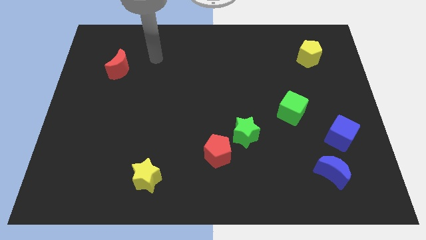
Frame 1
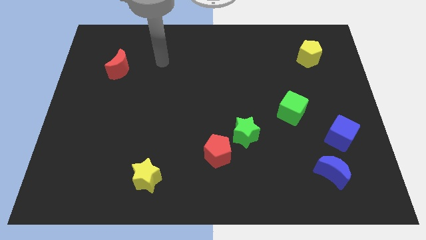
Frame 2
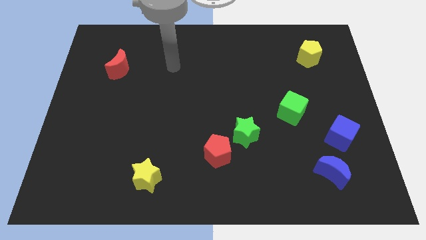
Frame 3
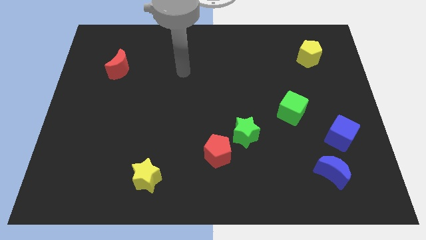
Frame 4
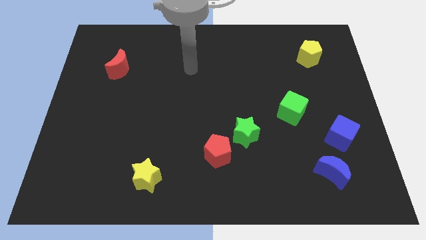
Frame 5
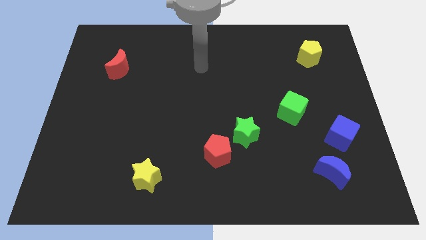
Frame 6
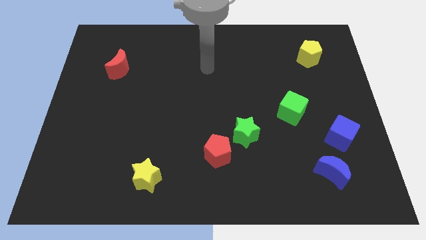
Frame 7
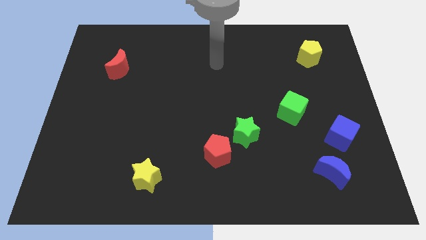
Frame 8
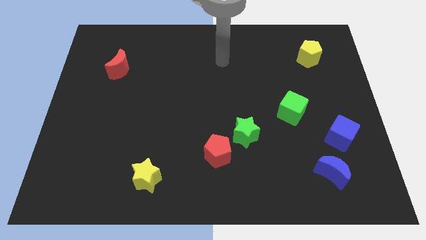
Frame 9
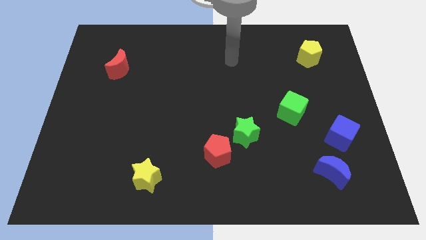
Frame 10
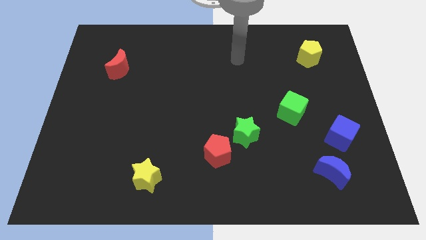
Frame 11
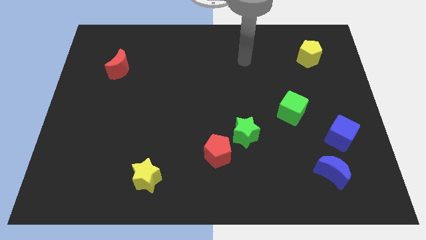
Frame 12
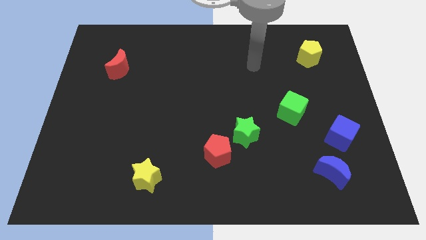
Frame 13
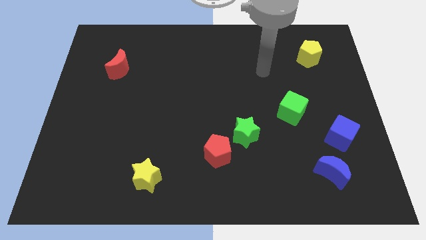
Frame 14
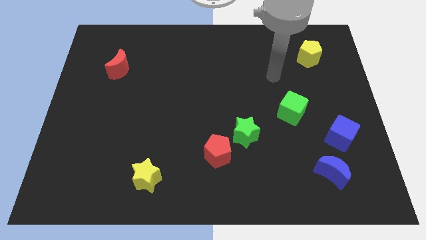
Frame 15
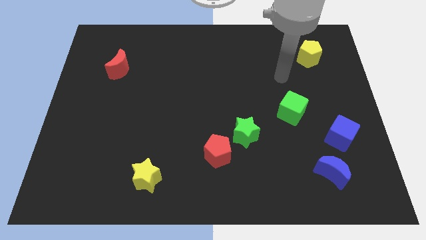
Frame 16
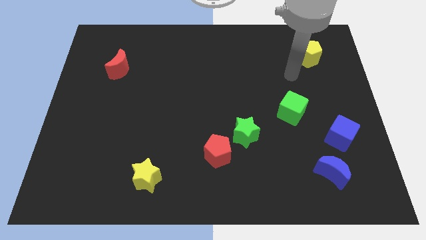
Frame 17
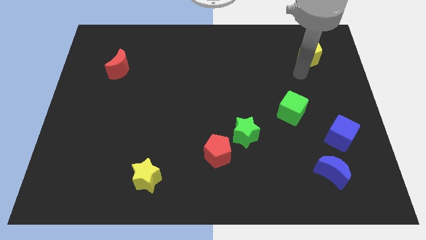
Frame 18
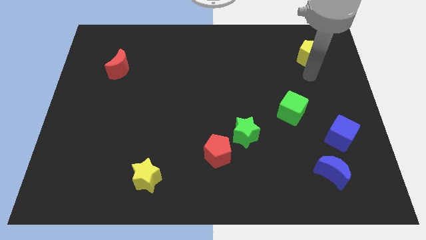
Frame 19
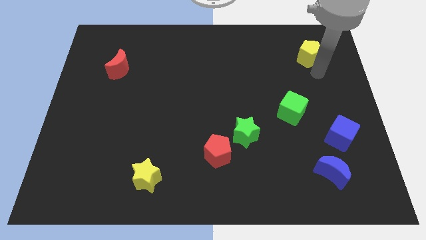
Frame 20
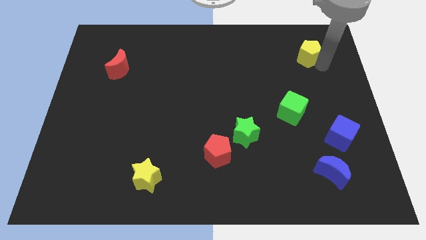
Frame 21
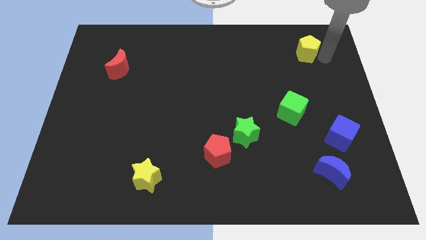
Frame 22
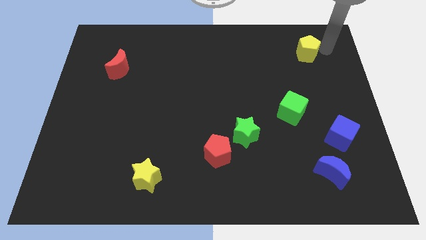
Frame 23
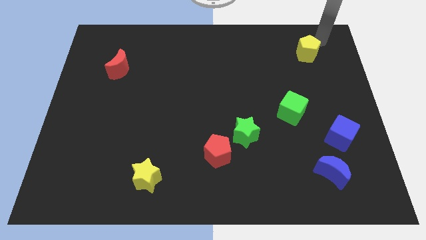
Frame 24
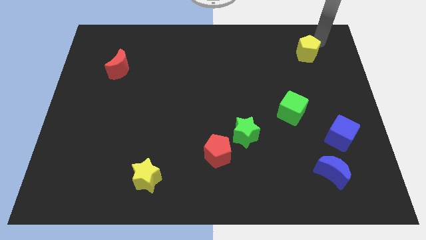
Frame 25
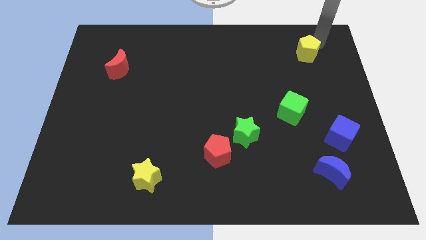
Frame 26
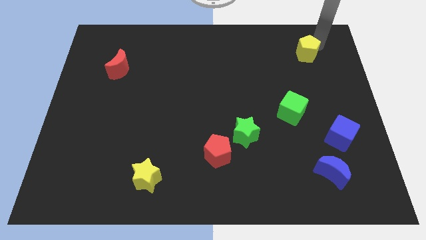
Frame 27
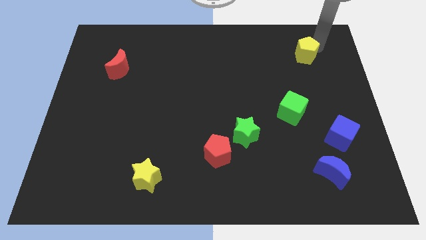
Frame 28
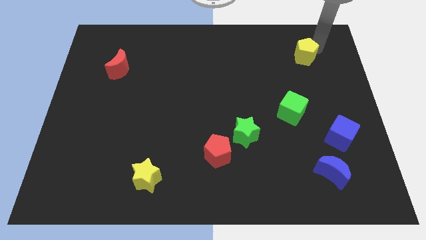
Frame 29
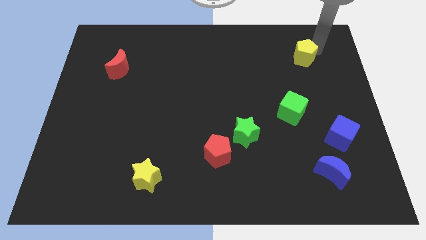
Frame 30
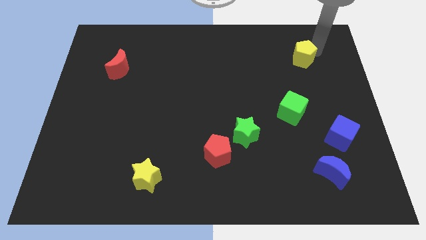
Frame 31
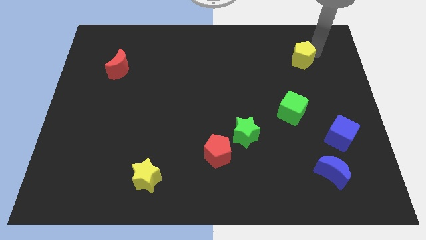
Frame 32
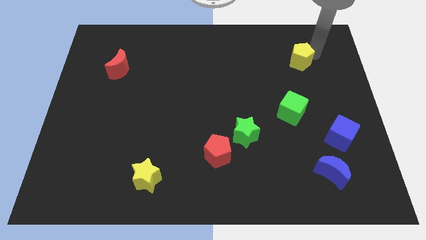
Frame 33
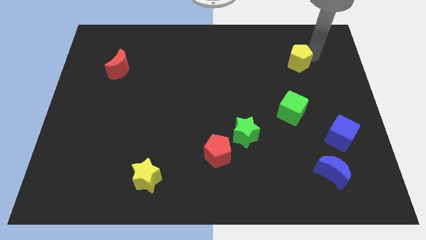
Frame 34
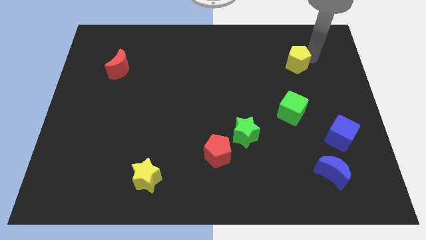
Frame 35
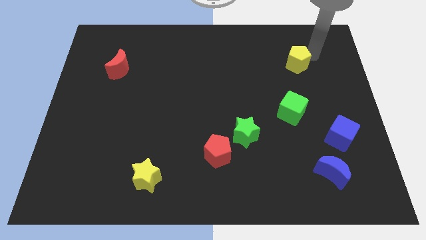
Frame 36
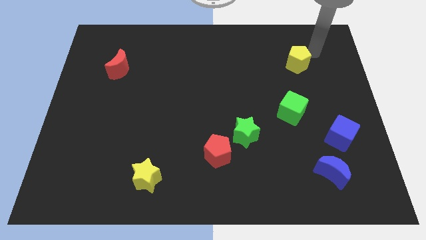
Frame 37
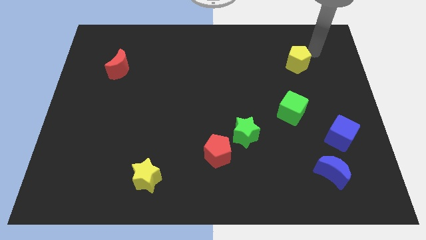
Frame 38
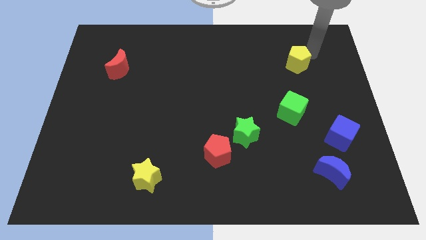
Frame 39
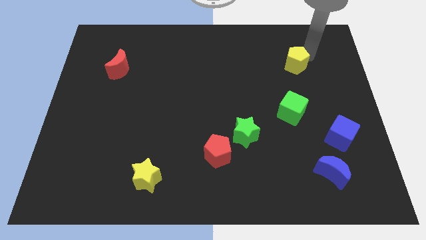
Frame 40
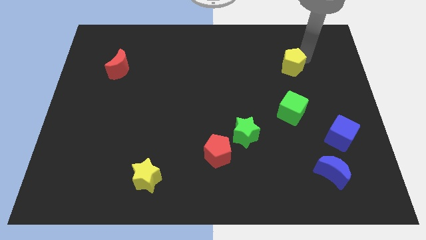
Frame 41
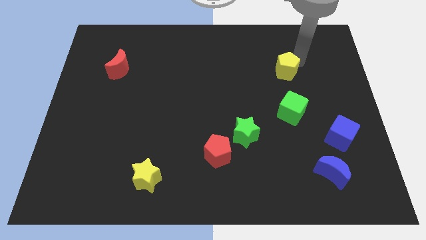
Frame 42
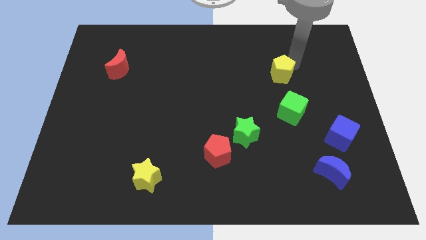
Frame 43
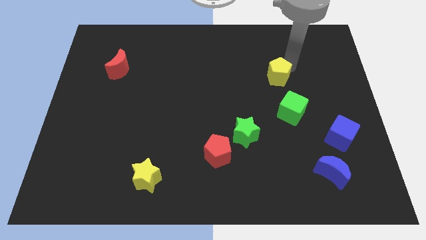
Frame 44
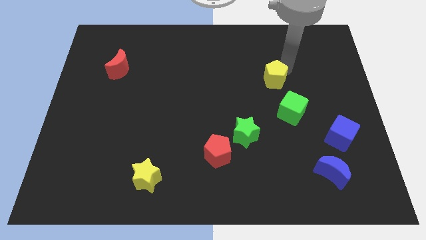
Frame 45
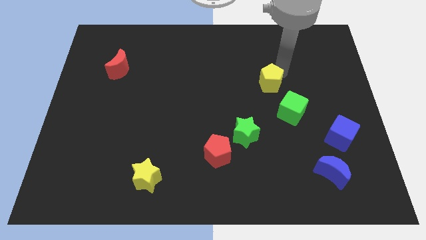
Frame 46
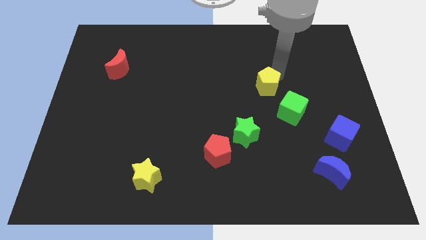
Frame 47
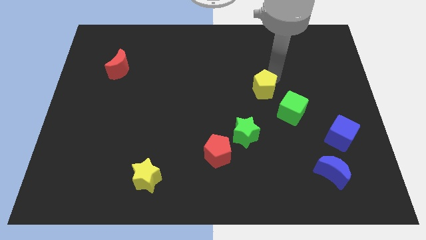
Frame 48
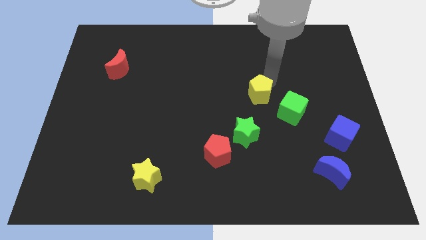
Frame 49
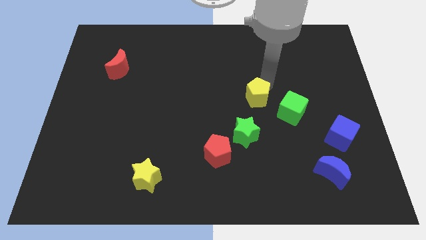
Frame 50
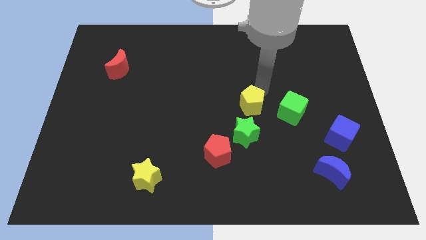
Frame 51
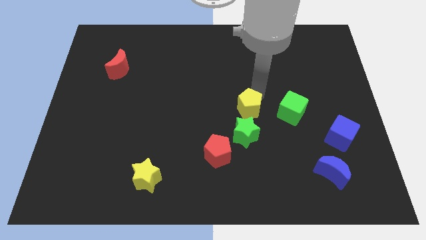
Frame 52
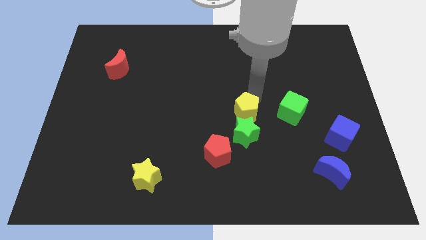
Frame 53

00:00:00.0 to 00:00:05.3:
put the yellow pentagon towards the green star

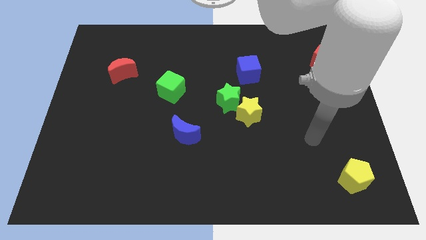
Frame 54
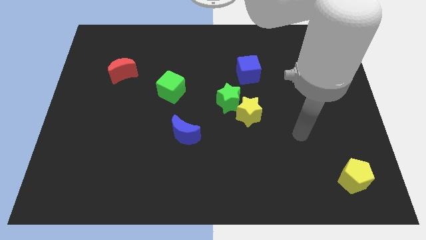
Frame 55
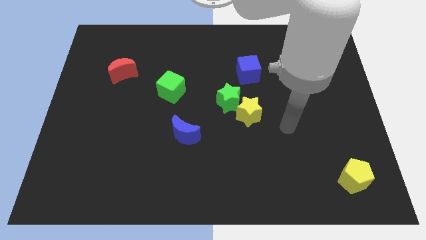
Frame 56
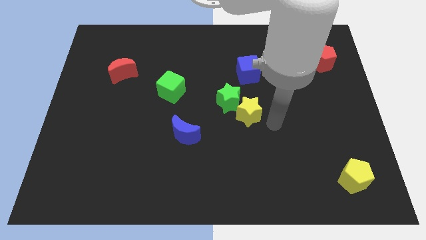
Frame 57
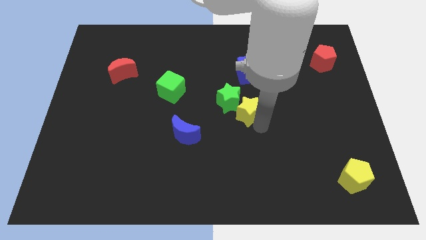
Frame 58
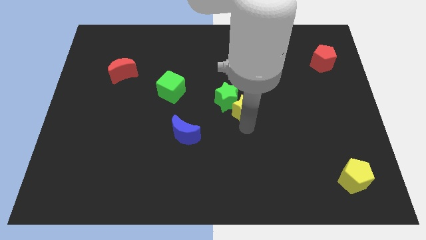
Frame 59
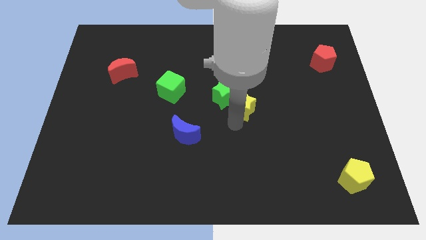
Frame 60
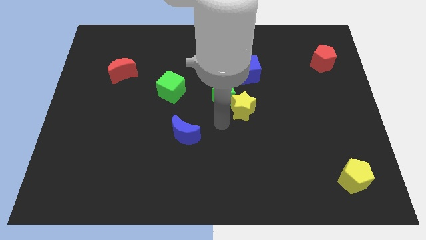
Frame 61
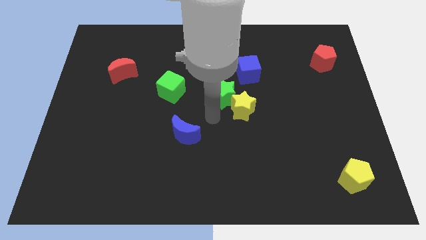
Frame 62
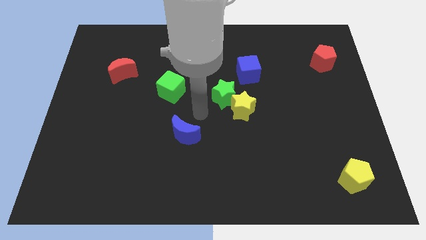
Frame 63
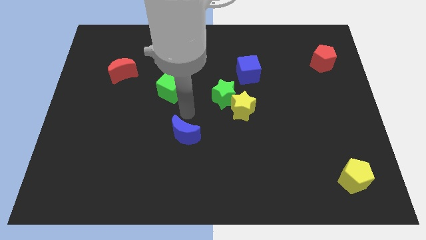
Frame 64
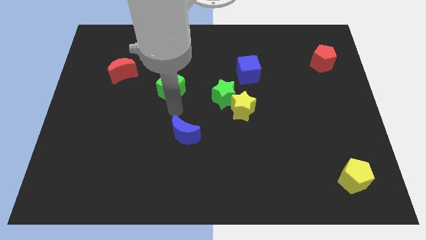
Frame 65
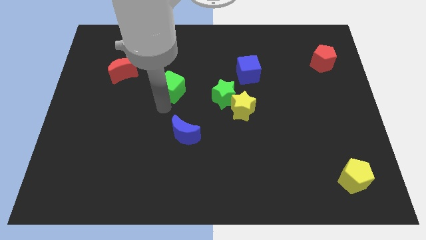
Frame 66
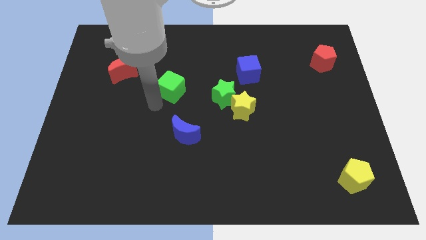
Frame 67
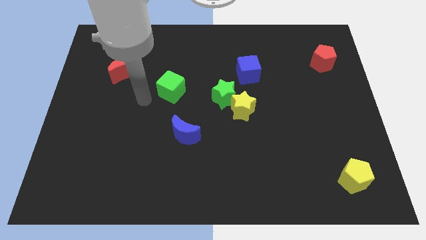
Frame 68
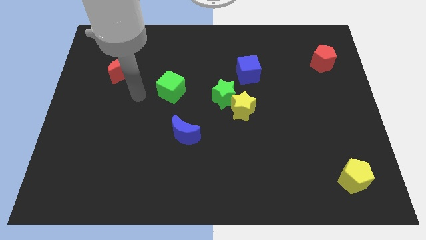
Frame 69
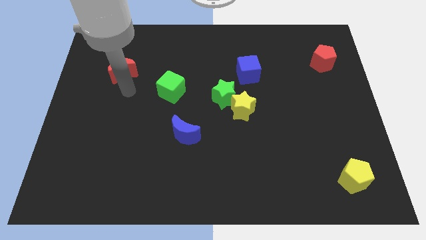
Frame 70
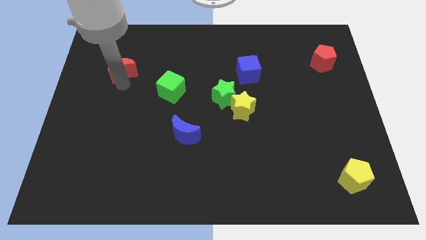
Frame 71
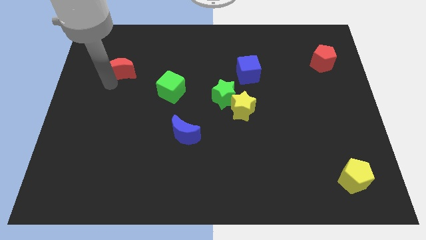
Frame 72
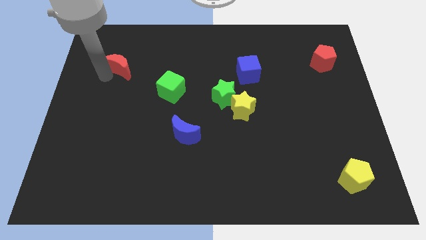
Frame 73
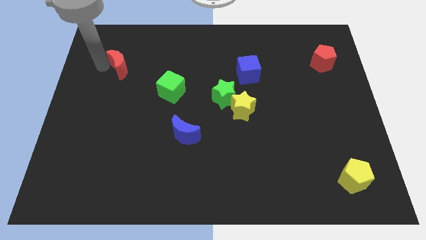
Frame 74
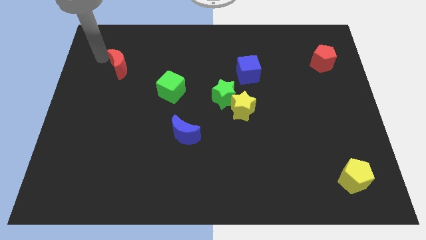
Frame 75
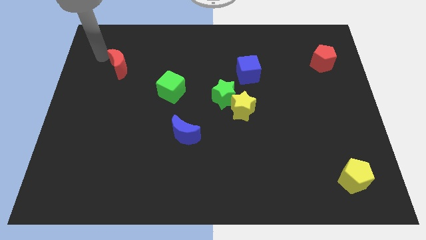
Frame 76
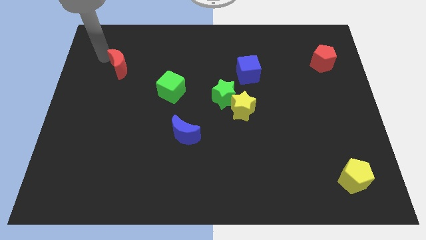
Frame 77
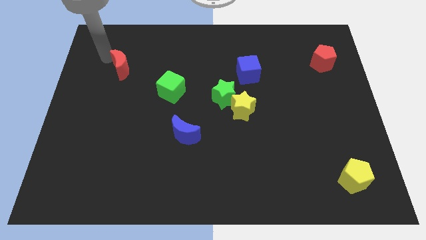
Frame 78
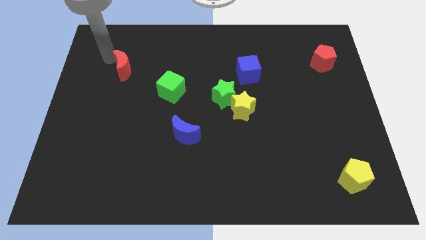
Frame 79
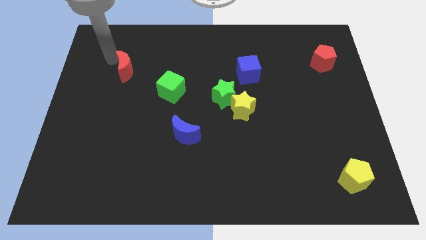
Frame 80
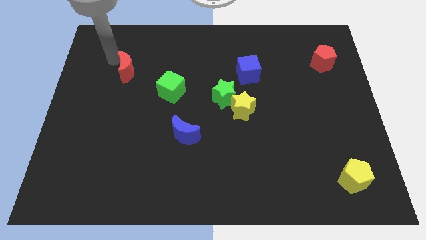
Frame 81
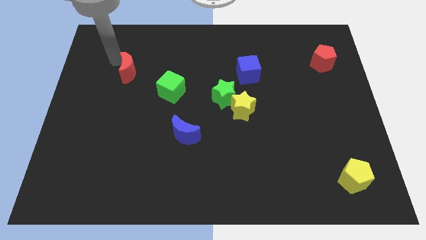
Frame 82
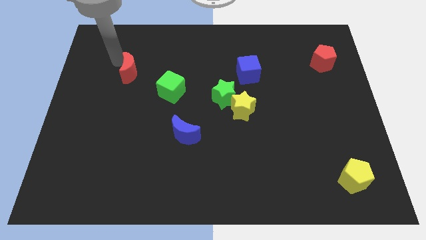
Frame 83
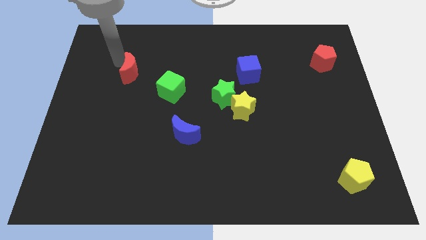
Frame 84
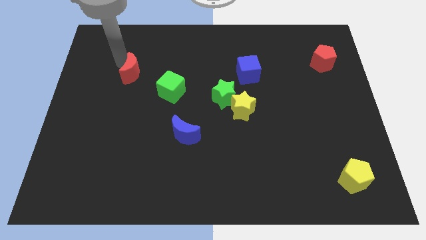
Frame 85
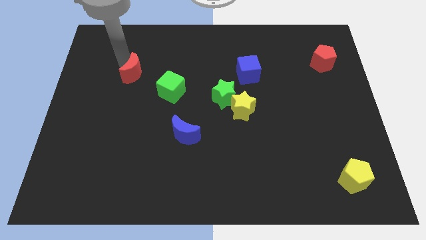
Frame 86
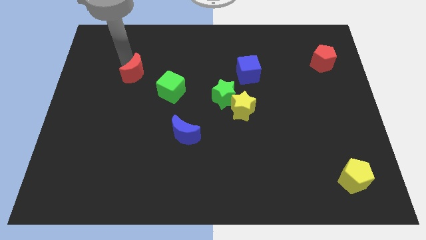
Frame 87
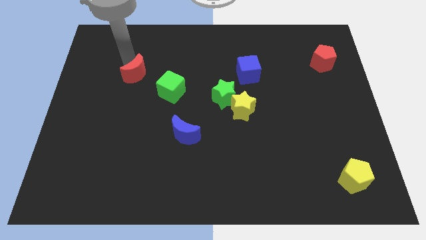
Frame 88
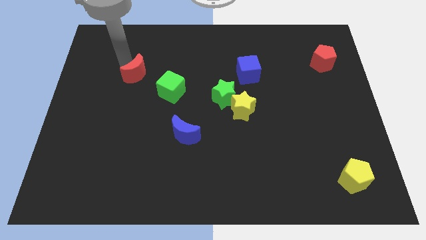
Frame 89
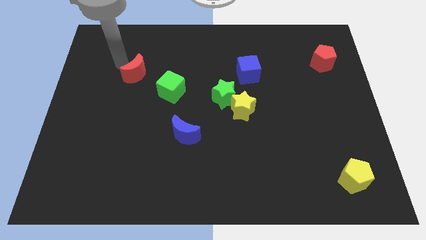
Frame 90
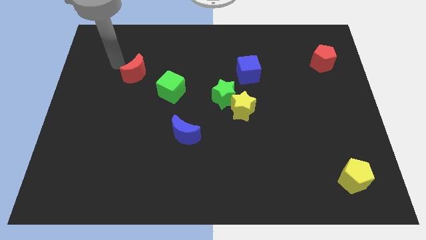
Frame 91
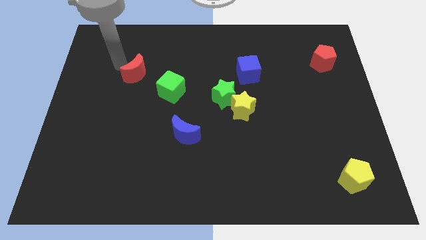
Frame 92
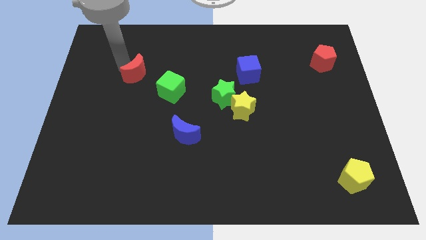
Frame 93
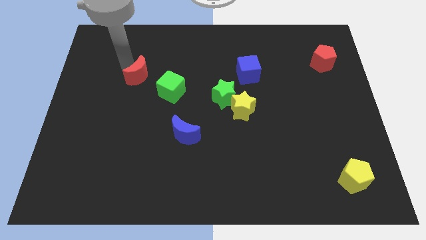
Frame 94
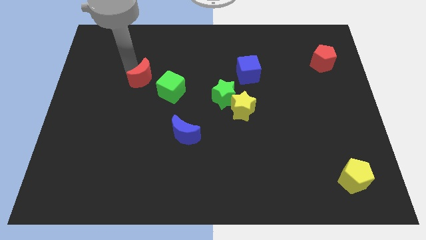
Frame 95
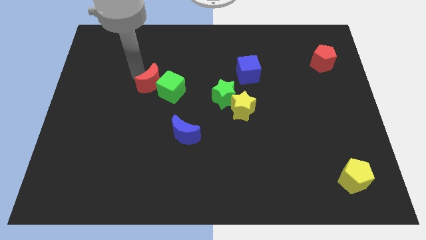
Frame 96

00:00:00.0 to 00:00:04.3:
slide the red moon next to the green cube
